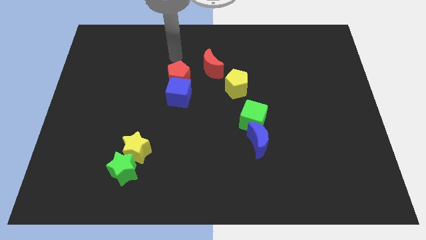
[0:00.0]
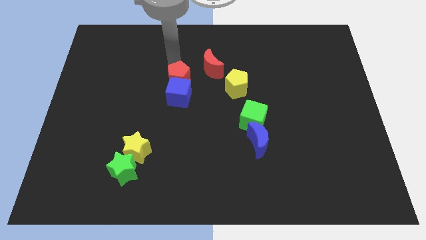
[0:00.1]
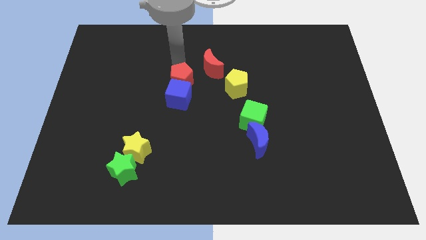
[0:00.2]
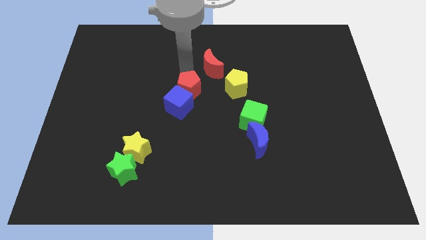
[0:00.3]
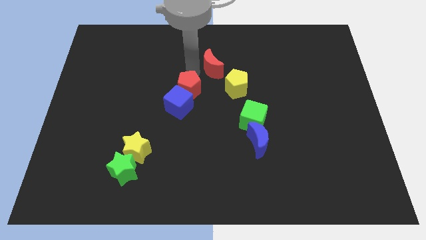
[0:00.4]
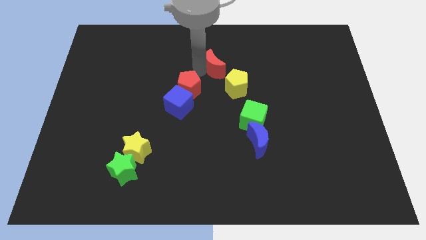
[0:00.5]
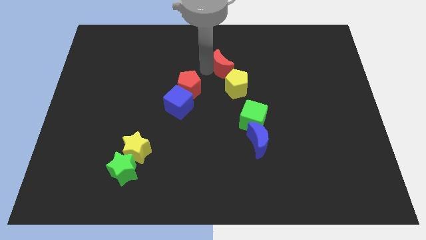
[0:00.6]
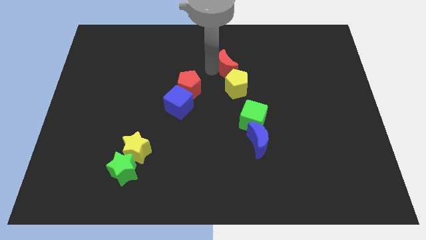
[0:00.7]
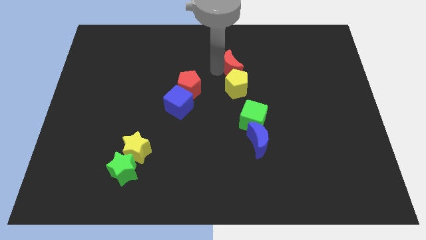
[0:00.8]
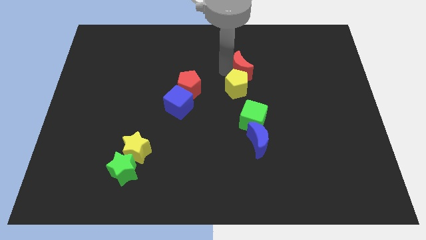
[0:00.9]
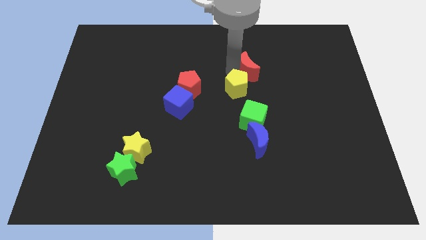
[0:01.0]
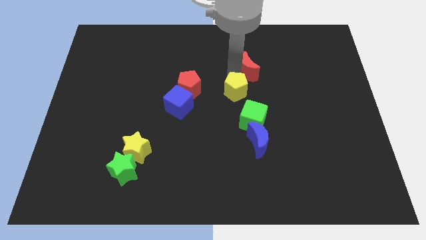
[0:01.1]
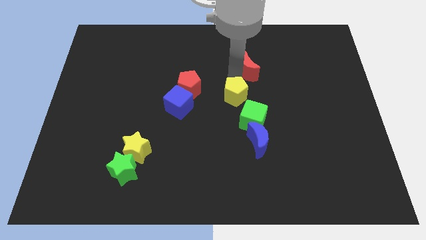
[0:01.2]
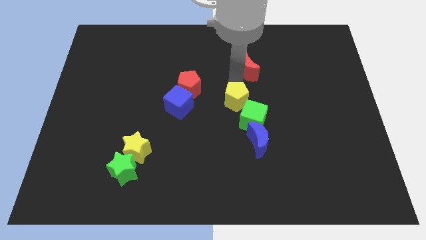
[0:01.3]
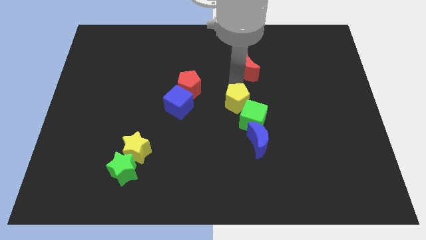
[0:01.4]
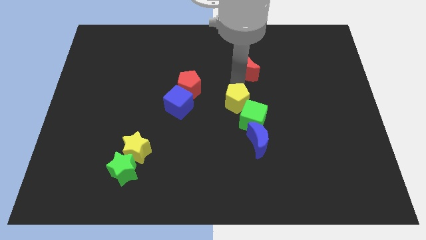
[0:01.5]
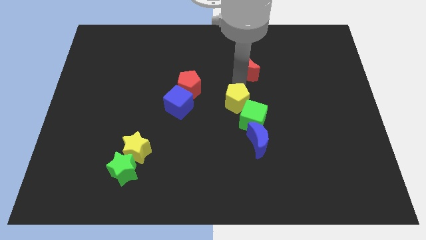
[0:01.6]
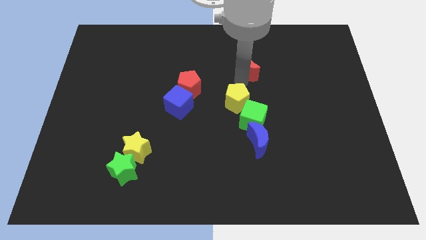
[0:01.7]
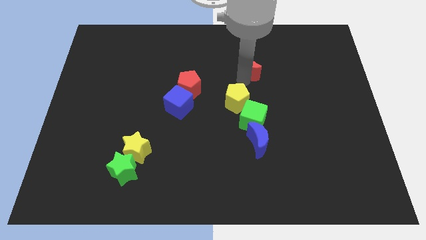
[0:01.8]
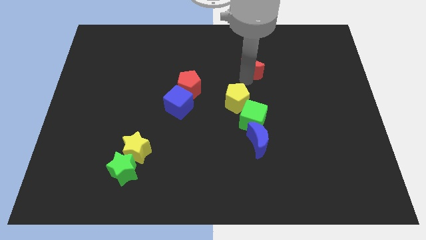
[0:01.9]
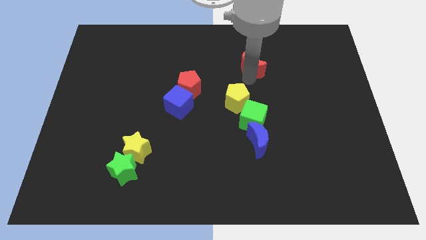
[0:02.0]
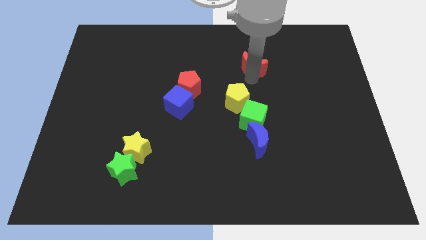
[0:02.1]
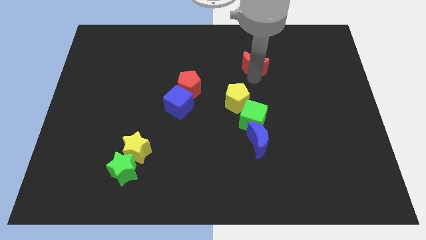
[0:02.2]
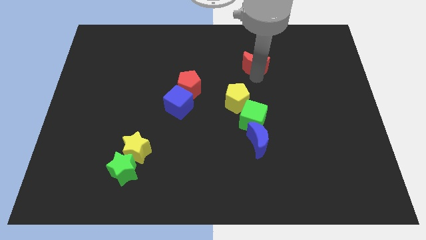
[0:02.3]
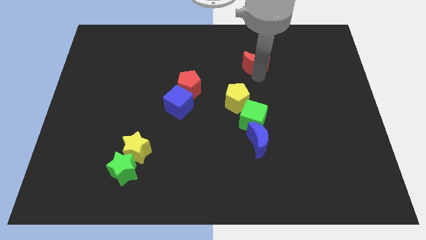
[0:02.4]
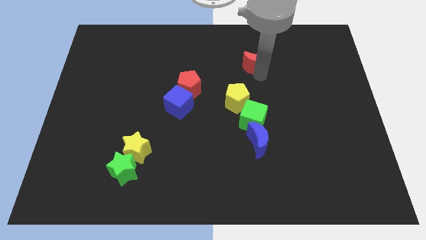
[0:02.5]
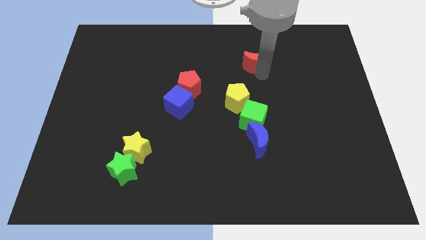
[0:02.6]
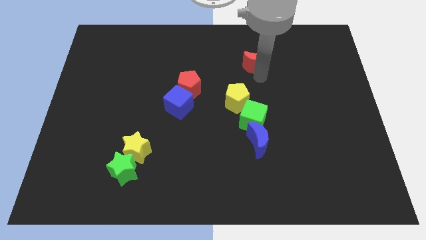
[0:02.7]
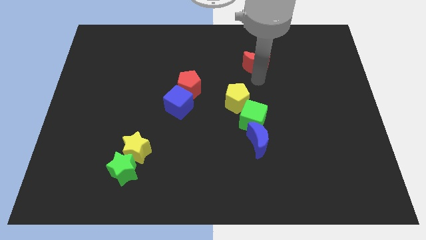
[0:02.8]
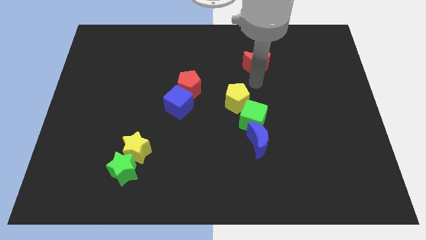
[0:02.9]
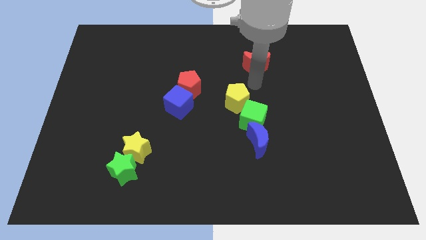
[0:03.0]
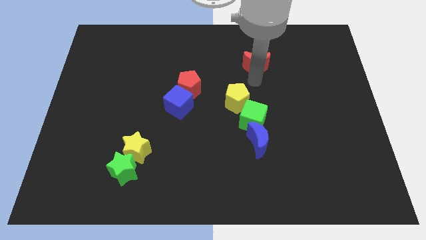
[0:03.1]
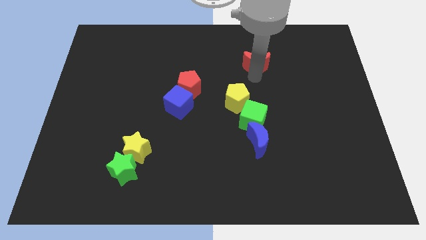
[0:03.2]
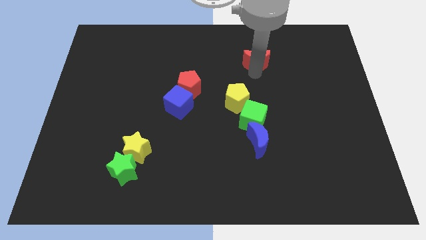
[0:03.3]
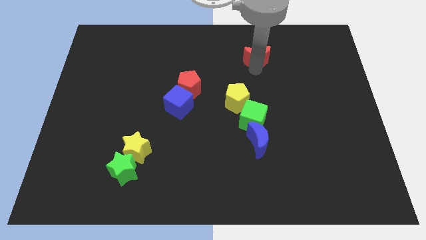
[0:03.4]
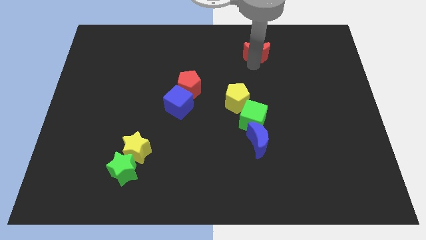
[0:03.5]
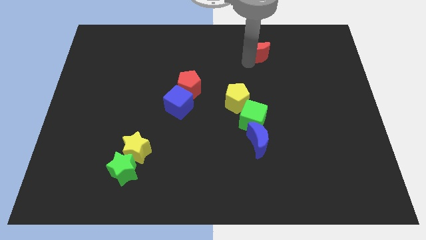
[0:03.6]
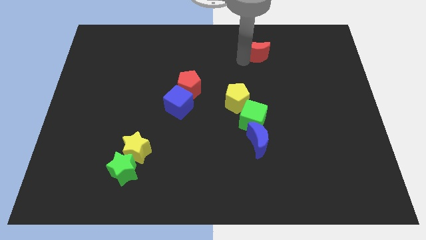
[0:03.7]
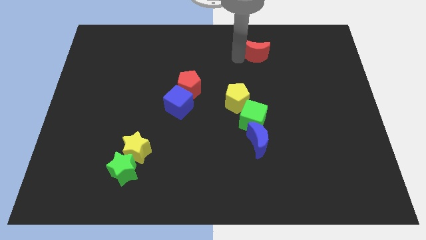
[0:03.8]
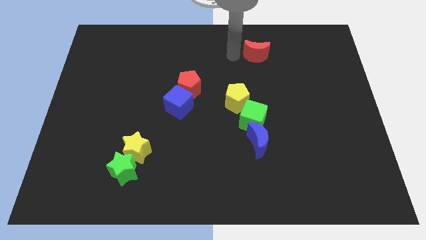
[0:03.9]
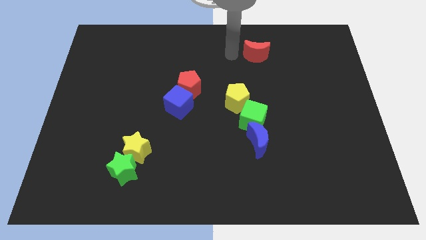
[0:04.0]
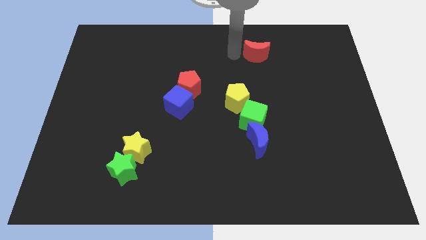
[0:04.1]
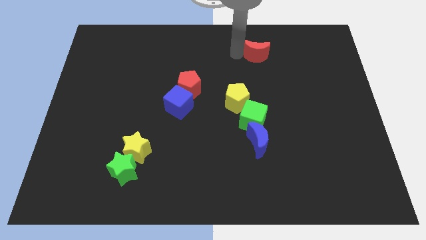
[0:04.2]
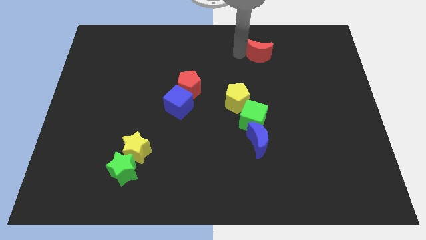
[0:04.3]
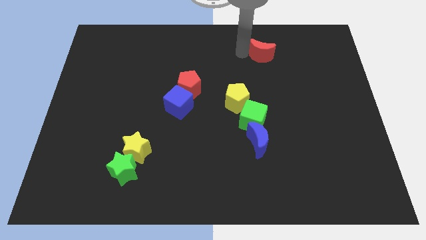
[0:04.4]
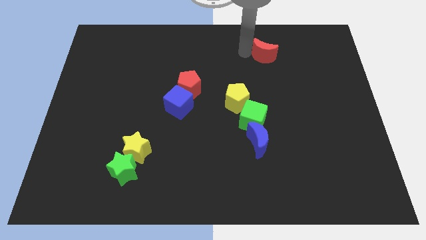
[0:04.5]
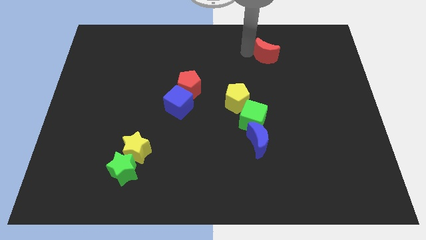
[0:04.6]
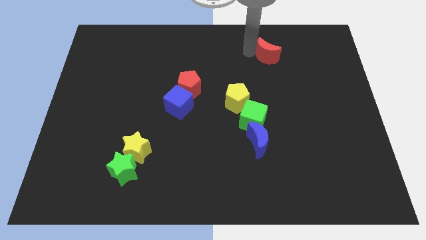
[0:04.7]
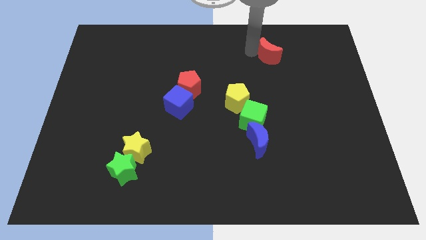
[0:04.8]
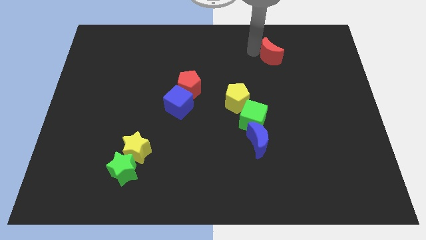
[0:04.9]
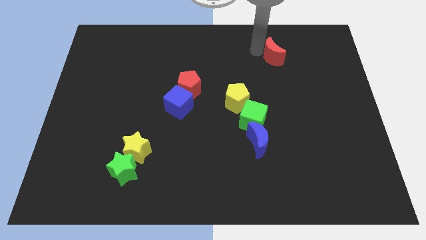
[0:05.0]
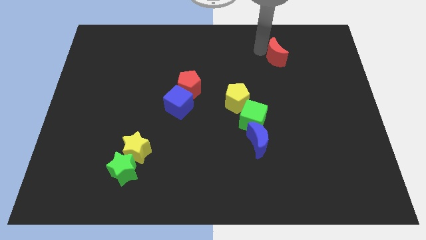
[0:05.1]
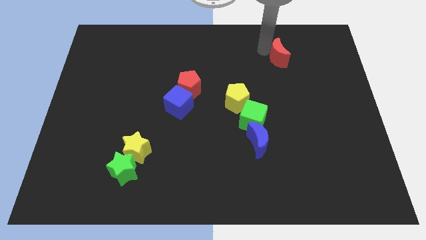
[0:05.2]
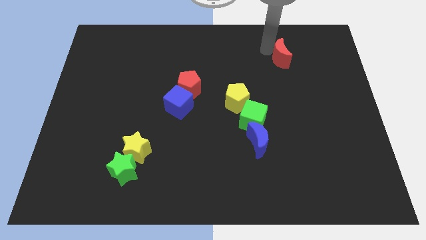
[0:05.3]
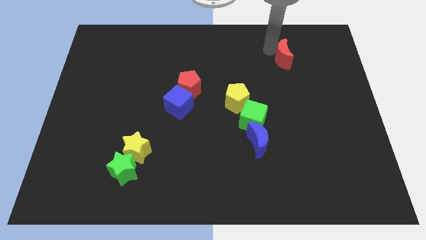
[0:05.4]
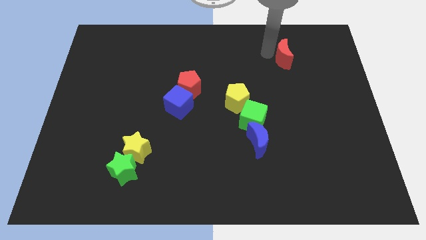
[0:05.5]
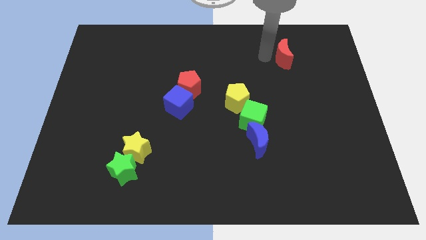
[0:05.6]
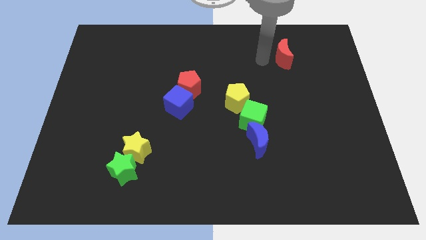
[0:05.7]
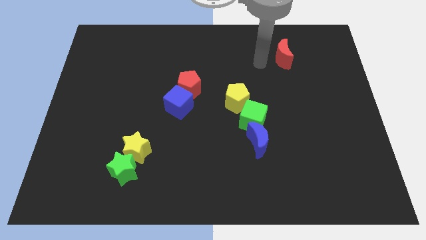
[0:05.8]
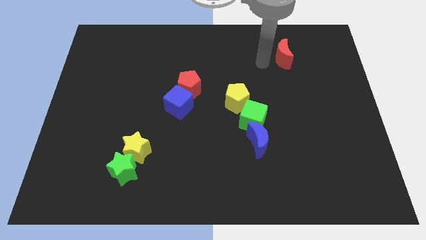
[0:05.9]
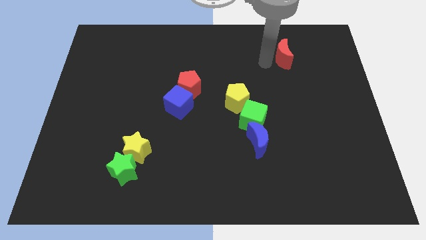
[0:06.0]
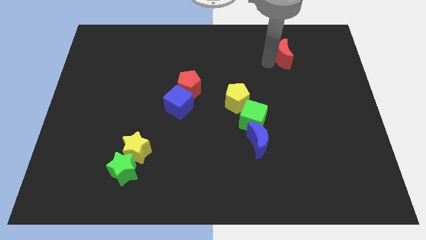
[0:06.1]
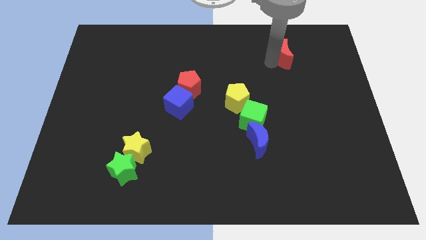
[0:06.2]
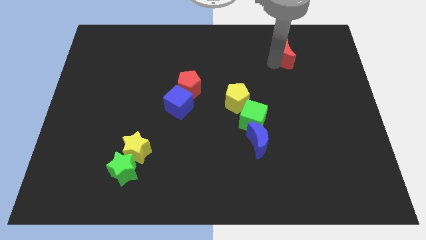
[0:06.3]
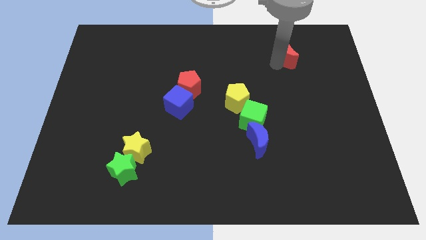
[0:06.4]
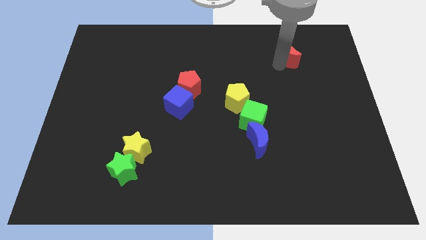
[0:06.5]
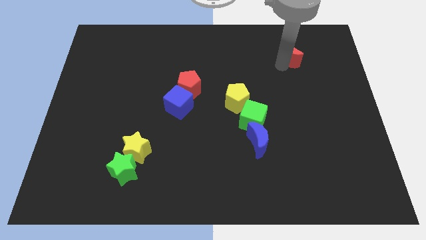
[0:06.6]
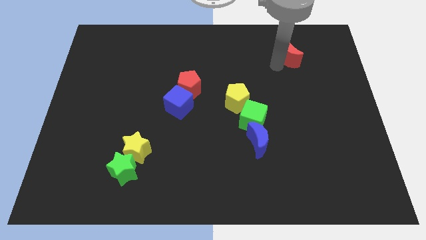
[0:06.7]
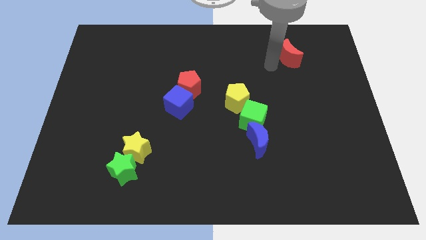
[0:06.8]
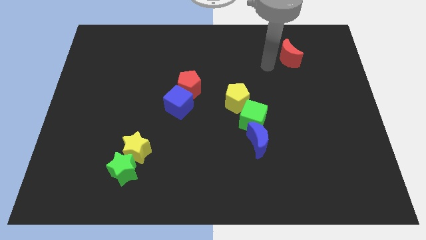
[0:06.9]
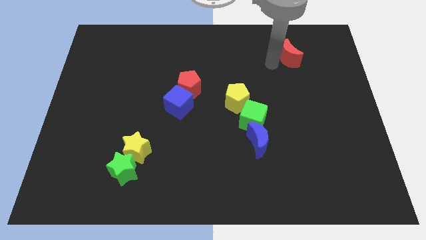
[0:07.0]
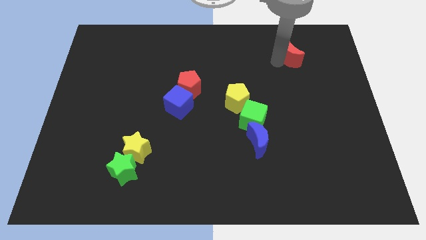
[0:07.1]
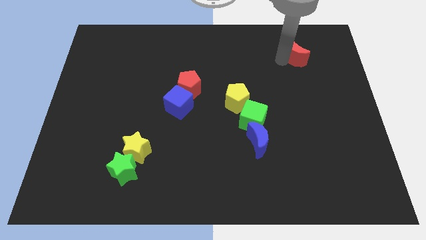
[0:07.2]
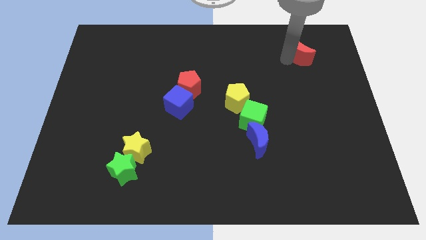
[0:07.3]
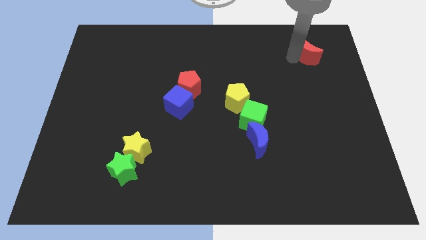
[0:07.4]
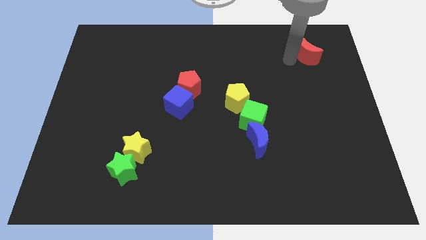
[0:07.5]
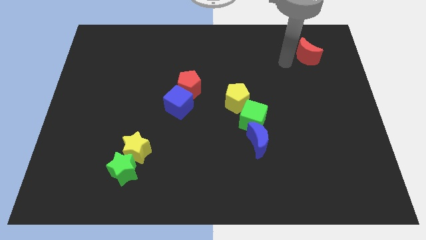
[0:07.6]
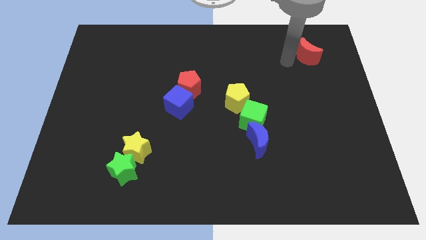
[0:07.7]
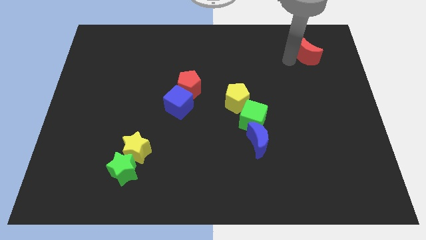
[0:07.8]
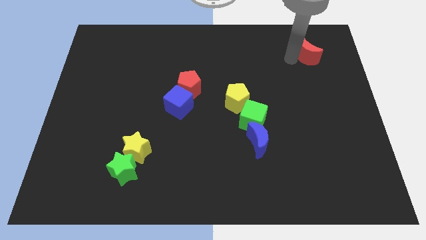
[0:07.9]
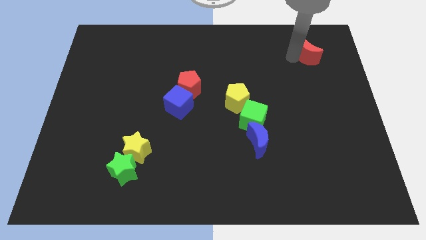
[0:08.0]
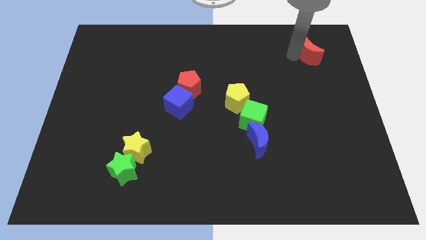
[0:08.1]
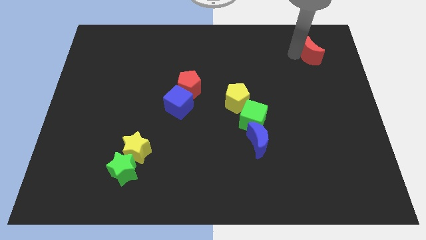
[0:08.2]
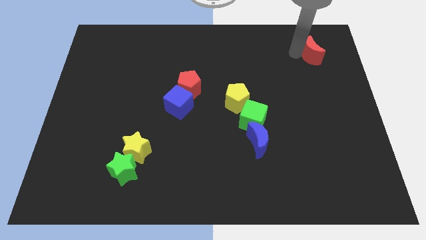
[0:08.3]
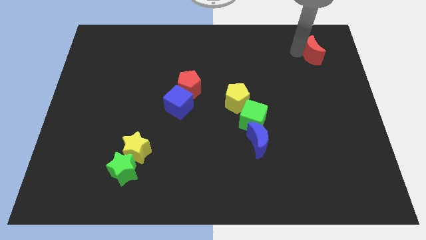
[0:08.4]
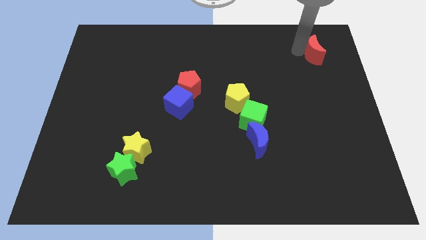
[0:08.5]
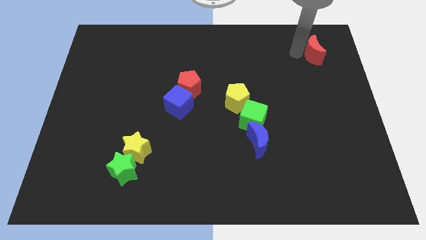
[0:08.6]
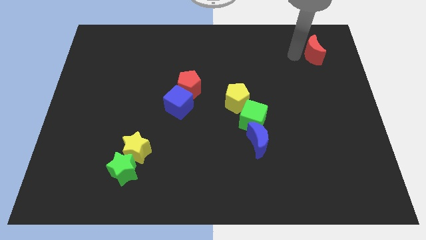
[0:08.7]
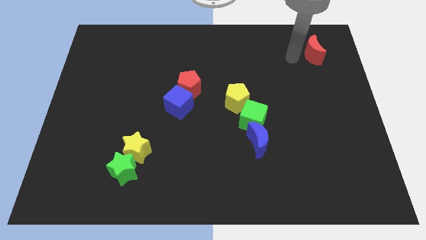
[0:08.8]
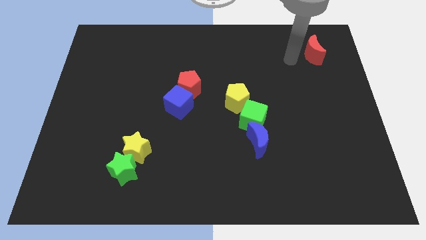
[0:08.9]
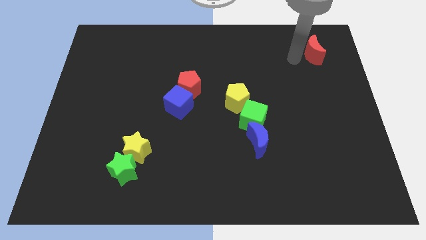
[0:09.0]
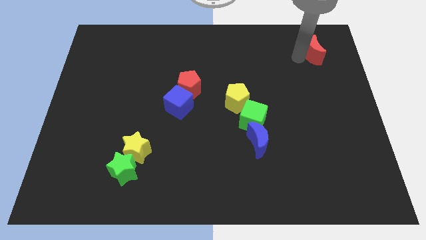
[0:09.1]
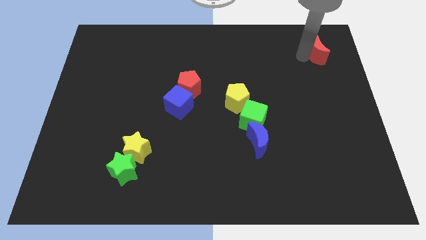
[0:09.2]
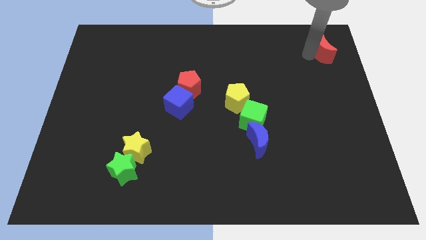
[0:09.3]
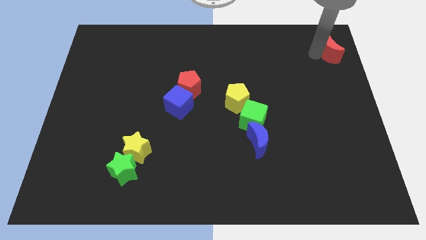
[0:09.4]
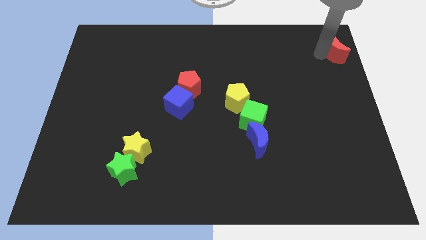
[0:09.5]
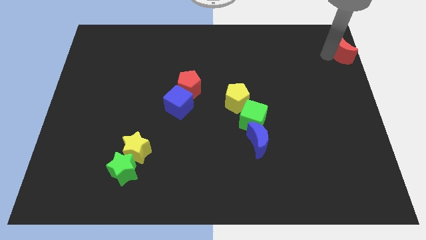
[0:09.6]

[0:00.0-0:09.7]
slide the red moon to the top right corner
